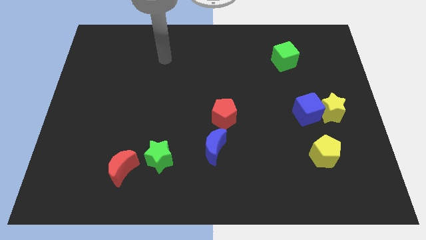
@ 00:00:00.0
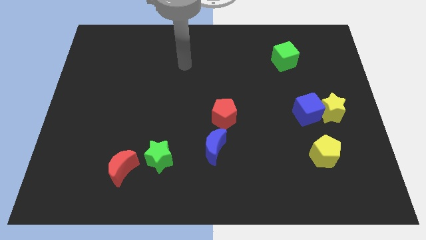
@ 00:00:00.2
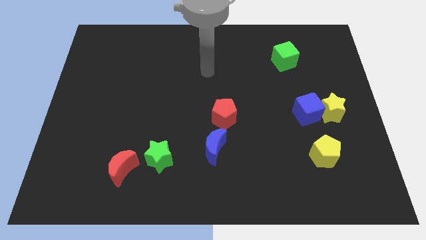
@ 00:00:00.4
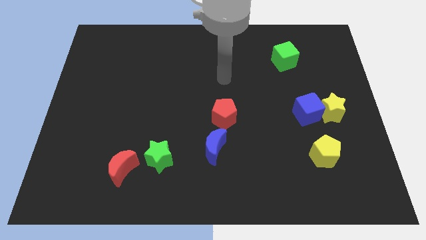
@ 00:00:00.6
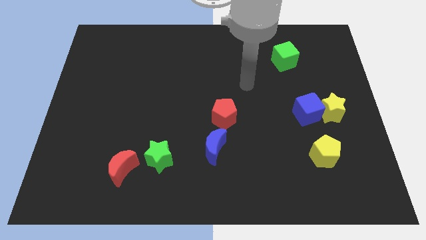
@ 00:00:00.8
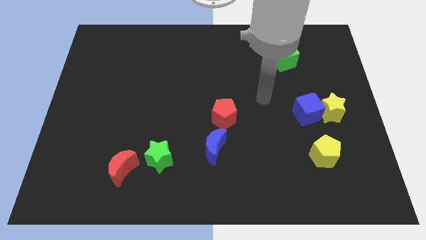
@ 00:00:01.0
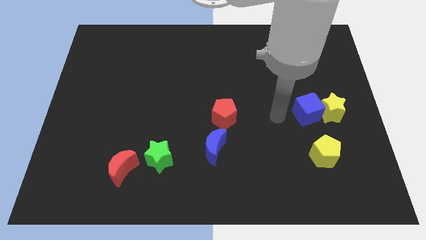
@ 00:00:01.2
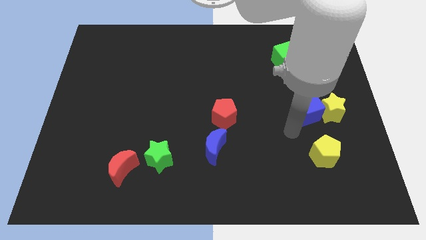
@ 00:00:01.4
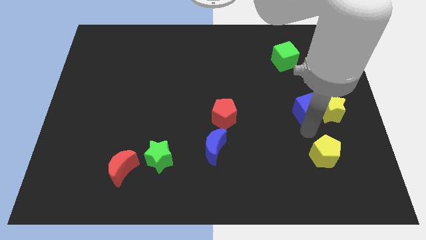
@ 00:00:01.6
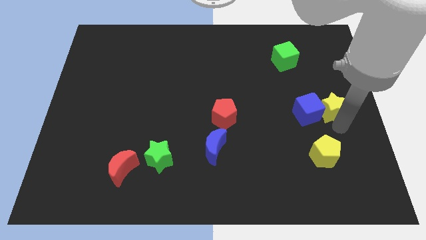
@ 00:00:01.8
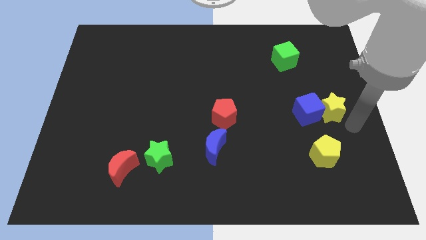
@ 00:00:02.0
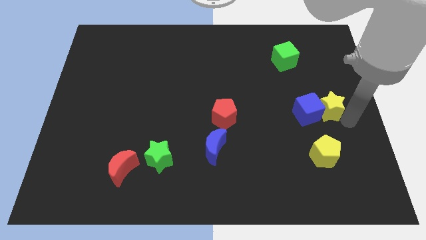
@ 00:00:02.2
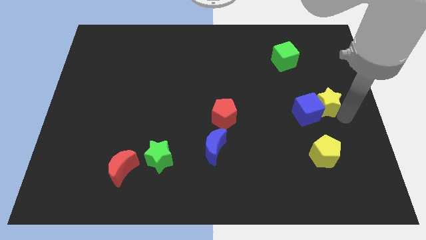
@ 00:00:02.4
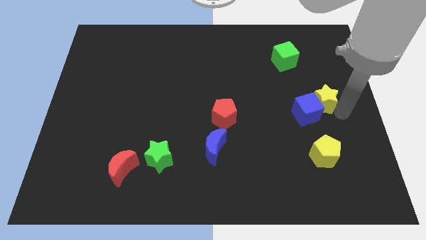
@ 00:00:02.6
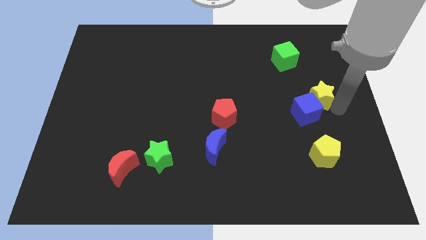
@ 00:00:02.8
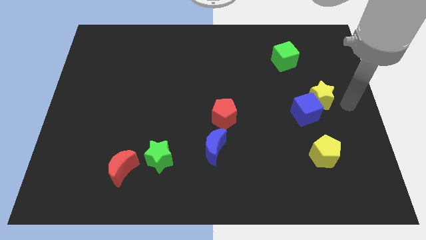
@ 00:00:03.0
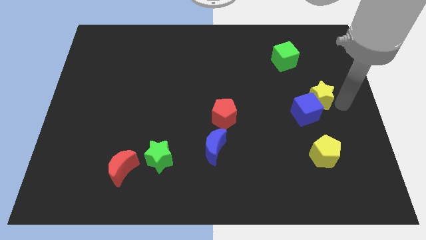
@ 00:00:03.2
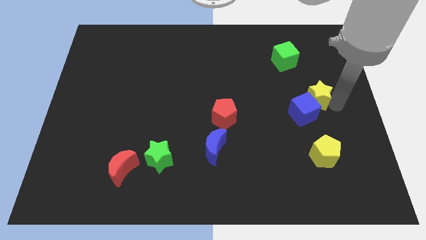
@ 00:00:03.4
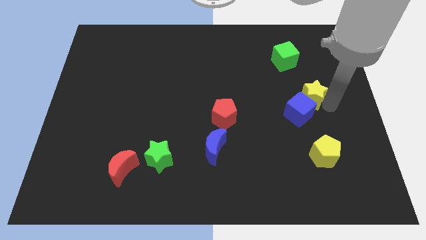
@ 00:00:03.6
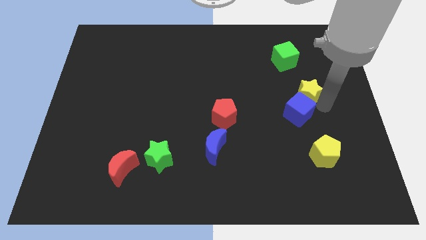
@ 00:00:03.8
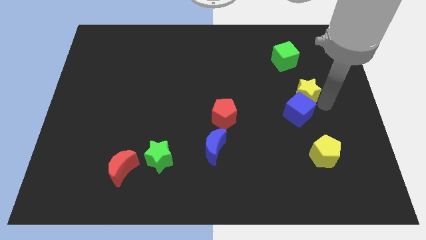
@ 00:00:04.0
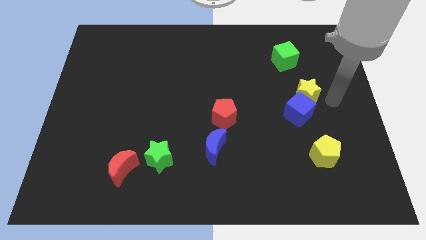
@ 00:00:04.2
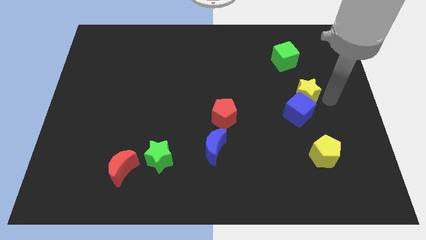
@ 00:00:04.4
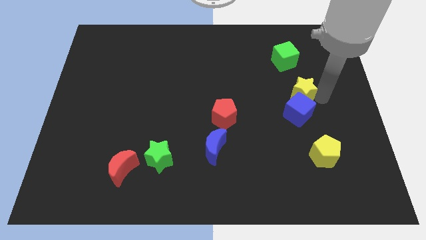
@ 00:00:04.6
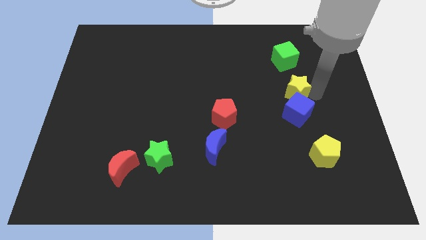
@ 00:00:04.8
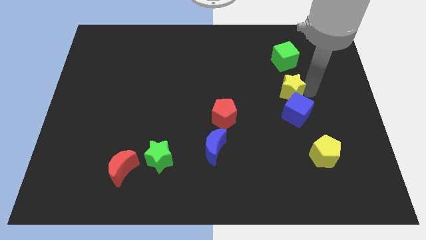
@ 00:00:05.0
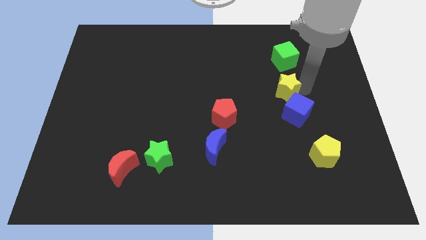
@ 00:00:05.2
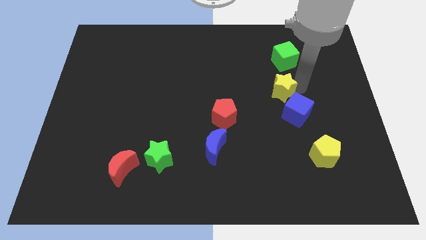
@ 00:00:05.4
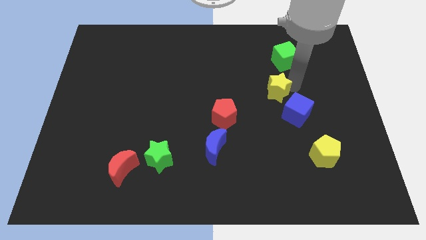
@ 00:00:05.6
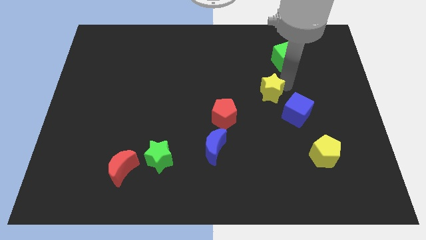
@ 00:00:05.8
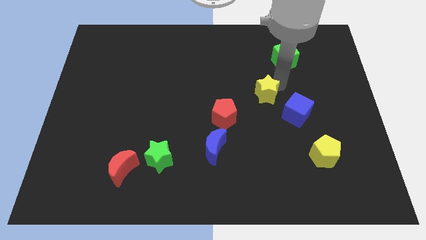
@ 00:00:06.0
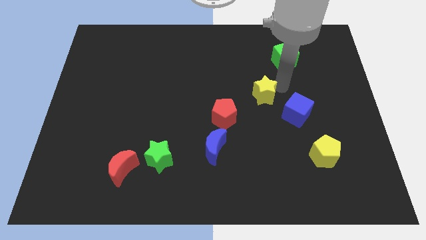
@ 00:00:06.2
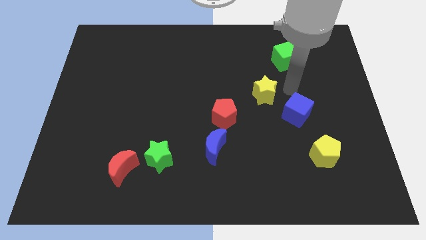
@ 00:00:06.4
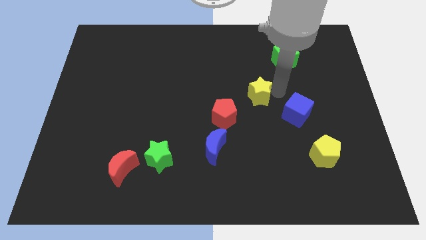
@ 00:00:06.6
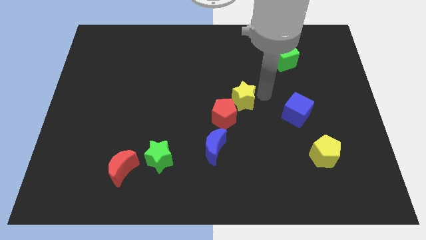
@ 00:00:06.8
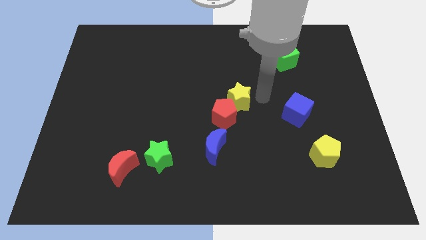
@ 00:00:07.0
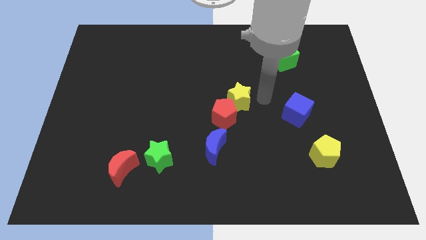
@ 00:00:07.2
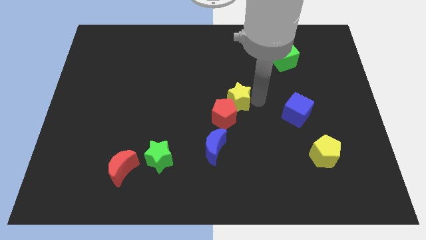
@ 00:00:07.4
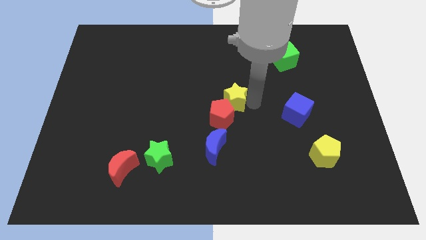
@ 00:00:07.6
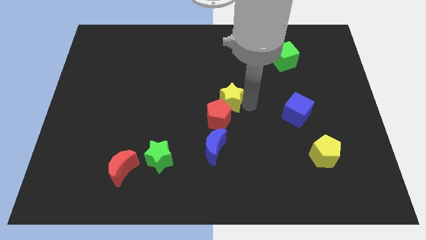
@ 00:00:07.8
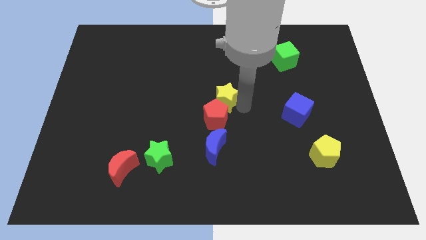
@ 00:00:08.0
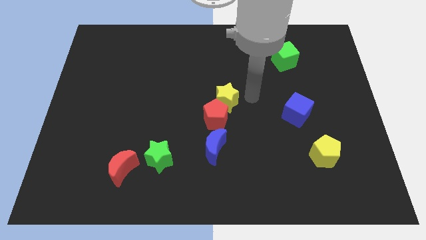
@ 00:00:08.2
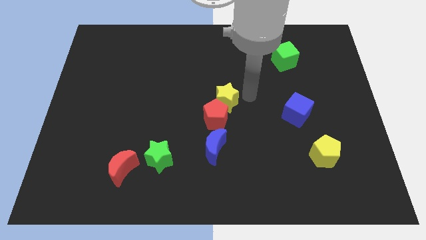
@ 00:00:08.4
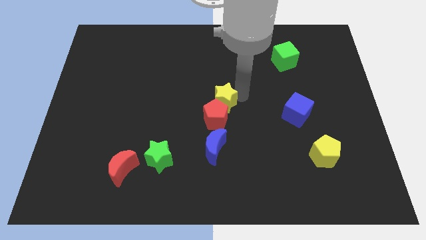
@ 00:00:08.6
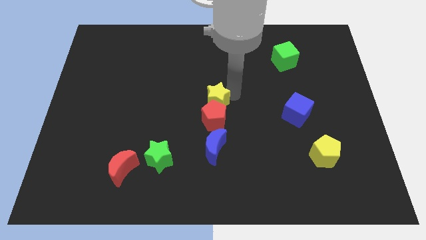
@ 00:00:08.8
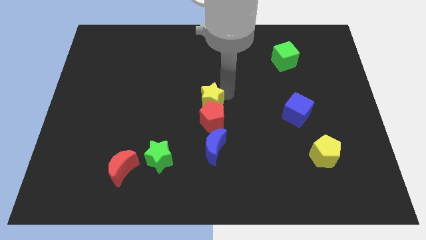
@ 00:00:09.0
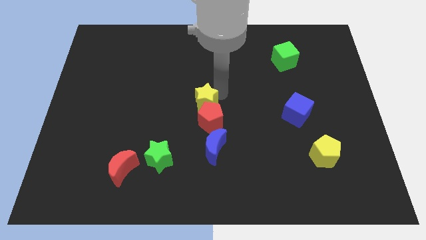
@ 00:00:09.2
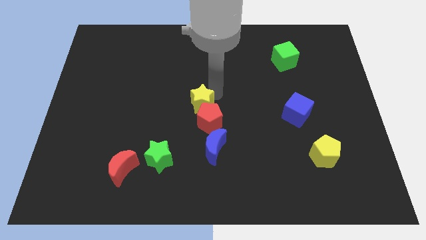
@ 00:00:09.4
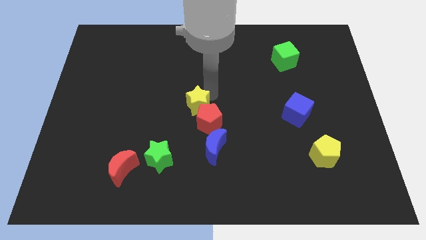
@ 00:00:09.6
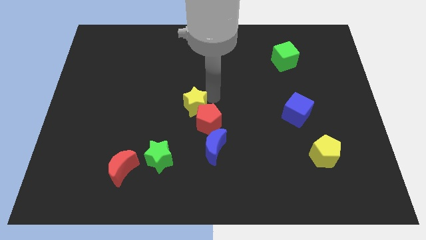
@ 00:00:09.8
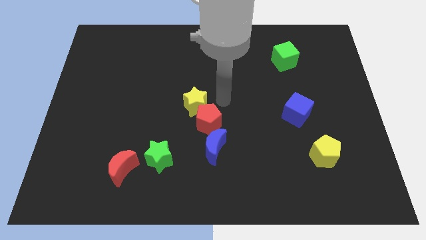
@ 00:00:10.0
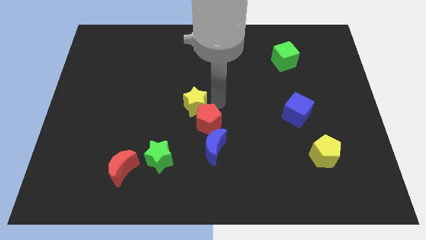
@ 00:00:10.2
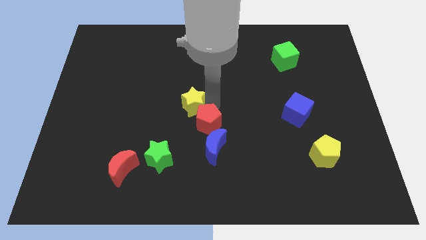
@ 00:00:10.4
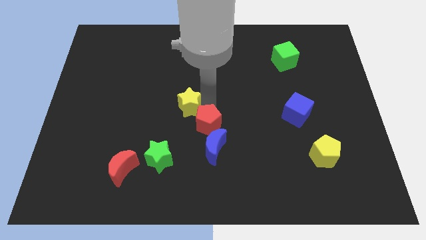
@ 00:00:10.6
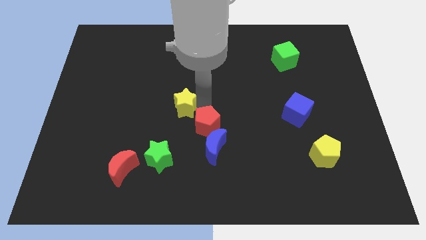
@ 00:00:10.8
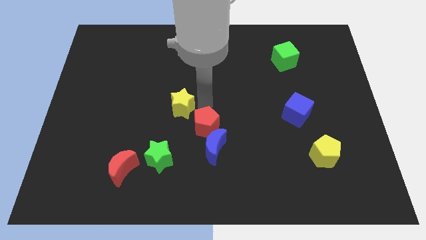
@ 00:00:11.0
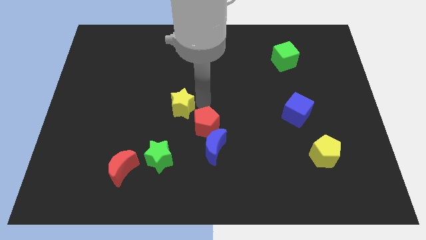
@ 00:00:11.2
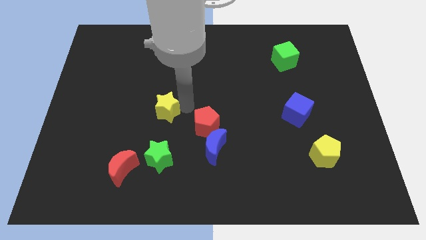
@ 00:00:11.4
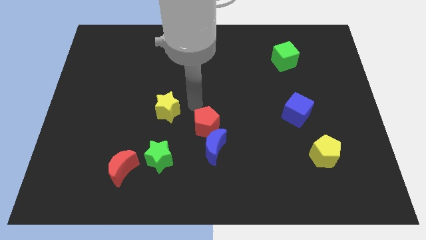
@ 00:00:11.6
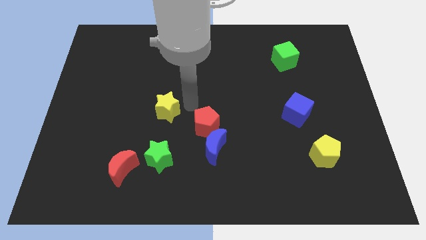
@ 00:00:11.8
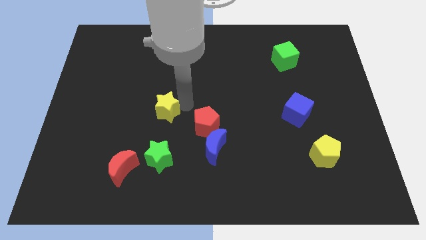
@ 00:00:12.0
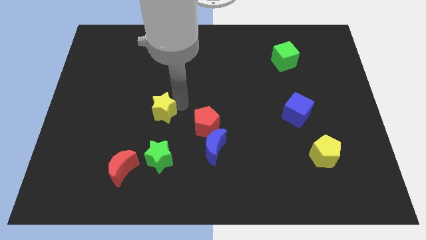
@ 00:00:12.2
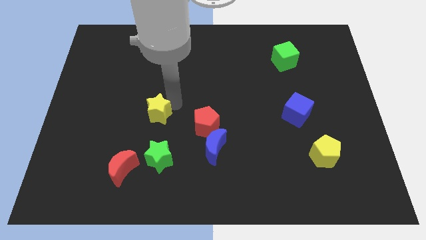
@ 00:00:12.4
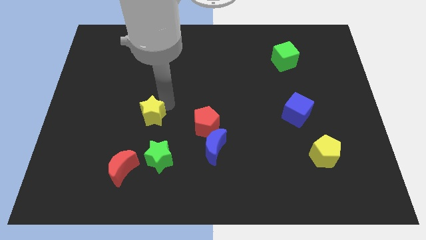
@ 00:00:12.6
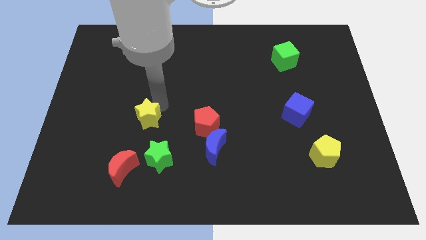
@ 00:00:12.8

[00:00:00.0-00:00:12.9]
put the yellow star to the top side of the red moon

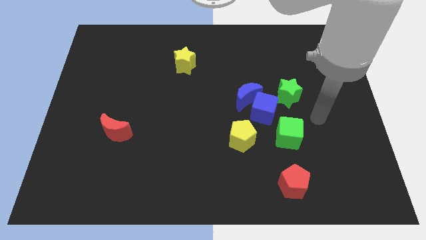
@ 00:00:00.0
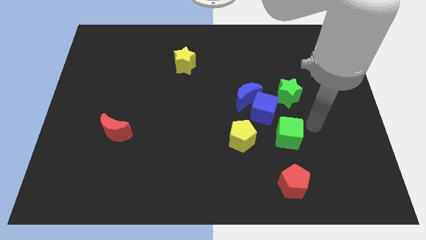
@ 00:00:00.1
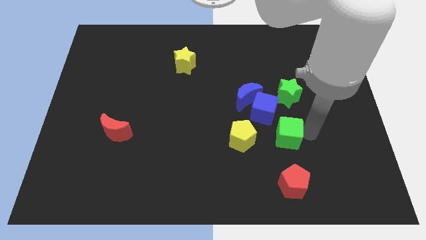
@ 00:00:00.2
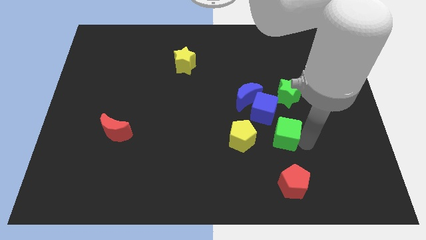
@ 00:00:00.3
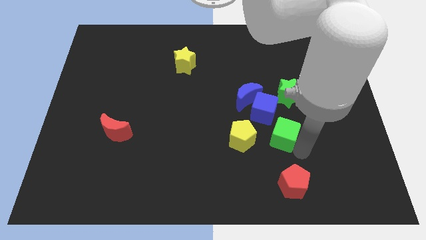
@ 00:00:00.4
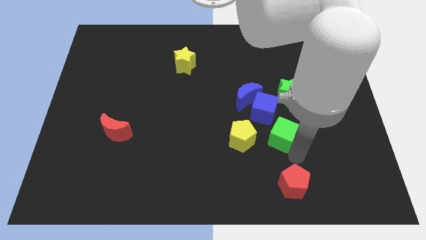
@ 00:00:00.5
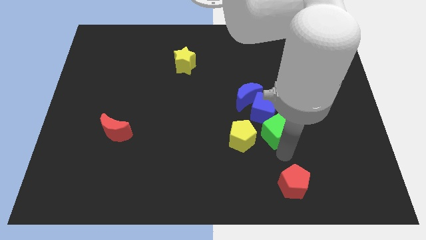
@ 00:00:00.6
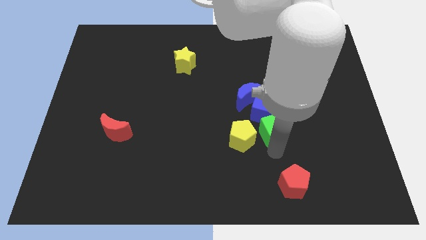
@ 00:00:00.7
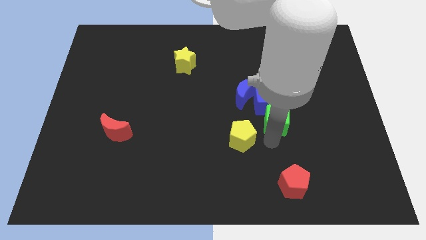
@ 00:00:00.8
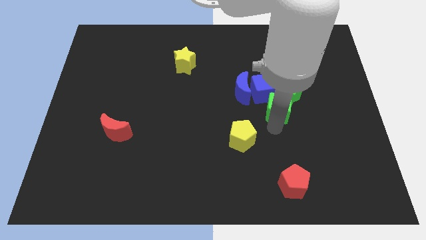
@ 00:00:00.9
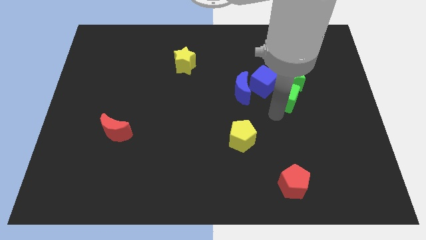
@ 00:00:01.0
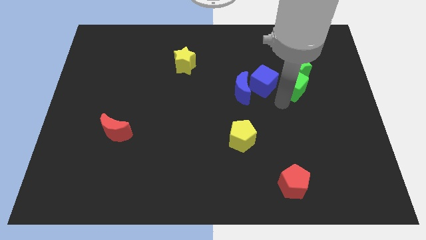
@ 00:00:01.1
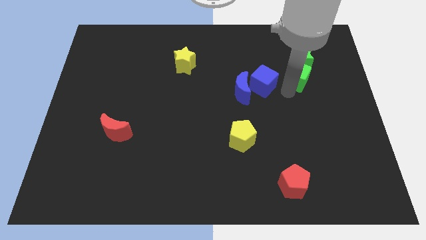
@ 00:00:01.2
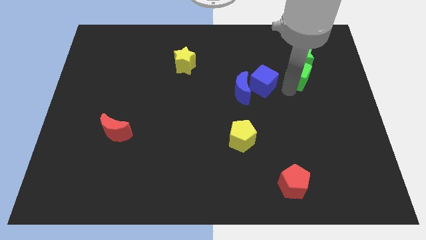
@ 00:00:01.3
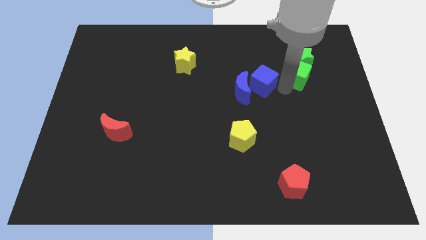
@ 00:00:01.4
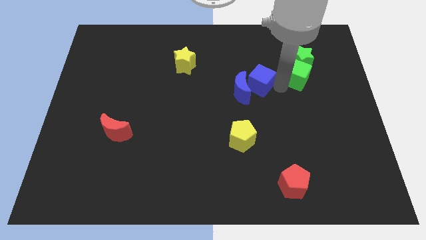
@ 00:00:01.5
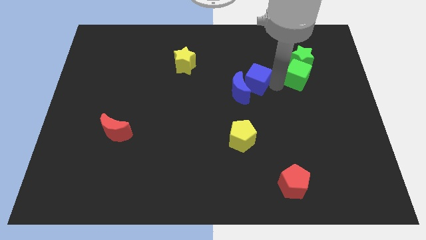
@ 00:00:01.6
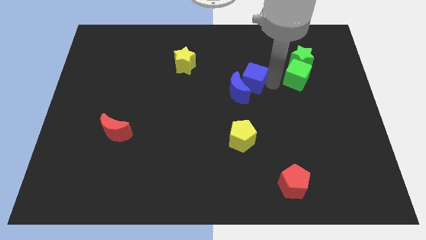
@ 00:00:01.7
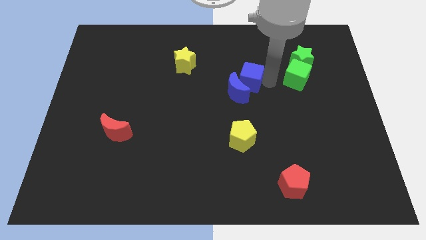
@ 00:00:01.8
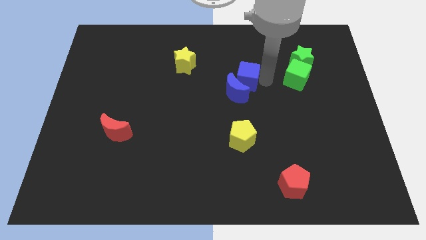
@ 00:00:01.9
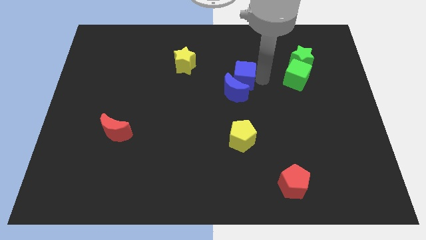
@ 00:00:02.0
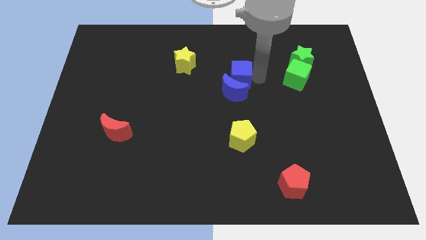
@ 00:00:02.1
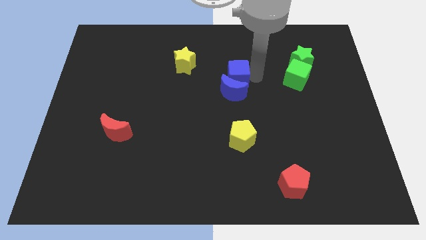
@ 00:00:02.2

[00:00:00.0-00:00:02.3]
push the blue cube diagonally up and to the left of the blue moon
